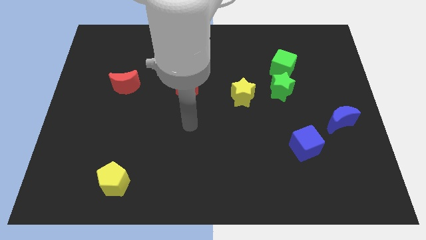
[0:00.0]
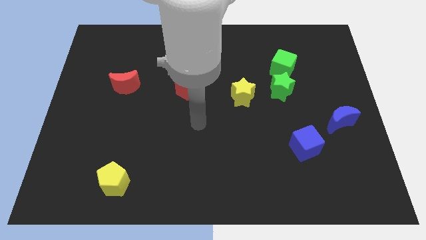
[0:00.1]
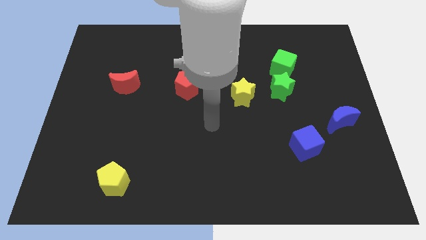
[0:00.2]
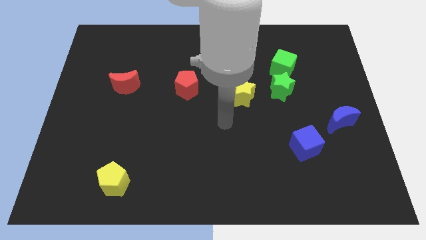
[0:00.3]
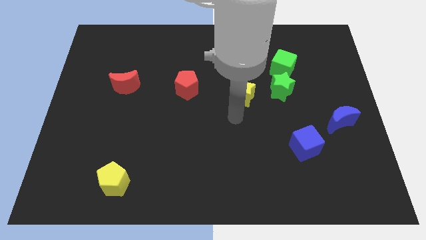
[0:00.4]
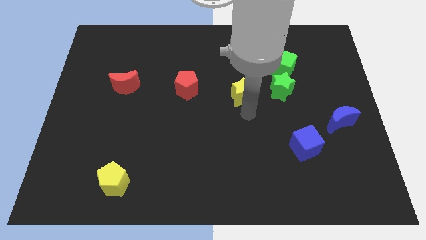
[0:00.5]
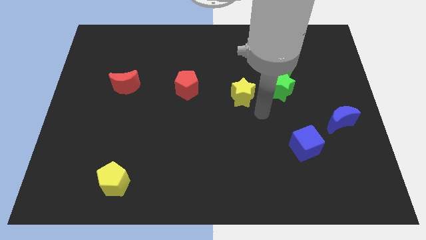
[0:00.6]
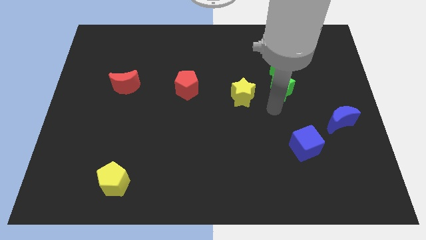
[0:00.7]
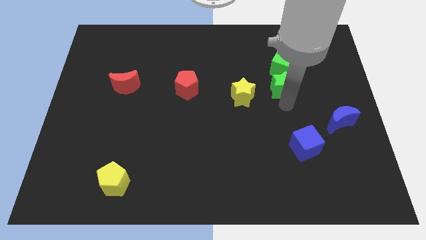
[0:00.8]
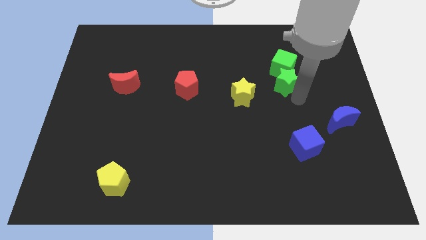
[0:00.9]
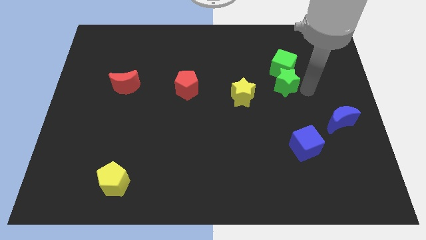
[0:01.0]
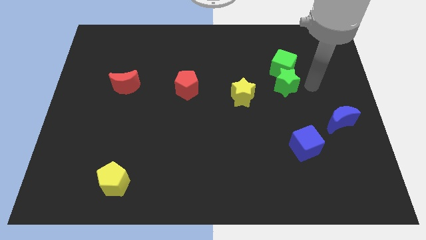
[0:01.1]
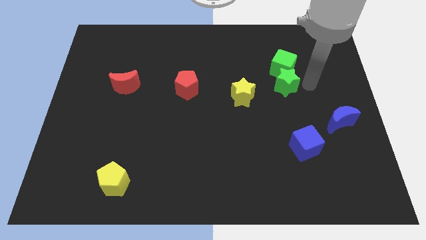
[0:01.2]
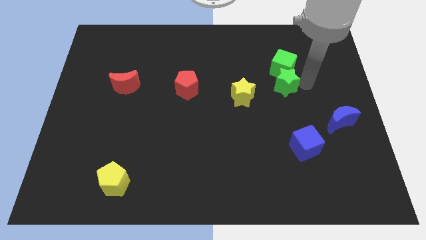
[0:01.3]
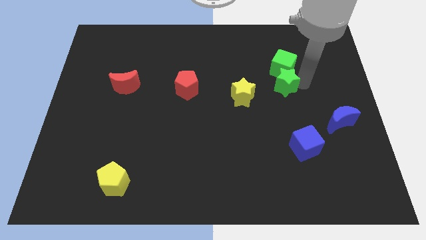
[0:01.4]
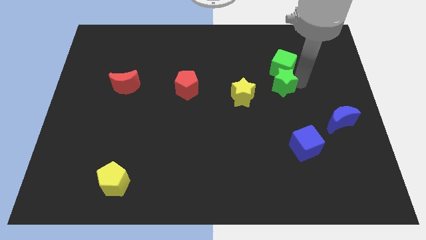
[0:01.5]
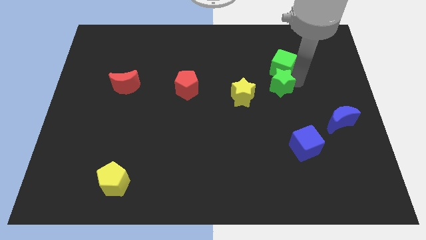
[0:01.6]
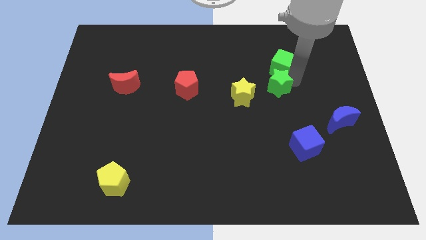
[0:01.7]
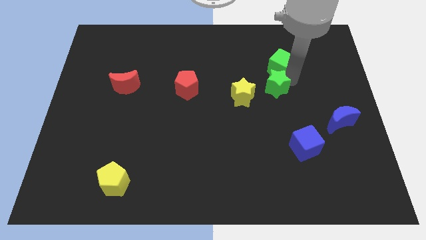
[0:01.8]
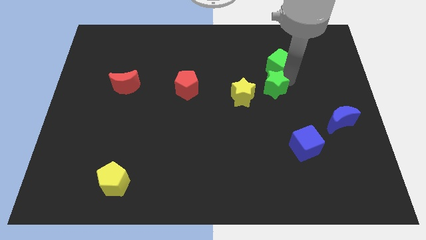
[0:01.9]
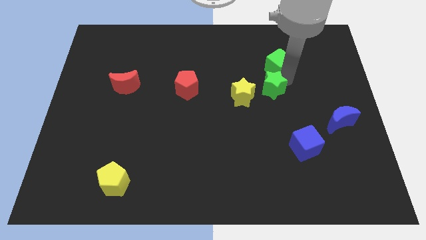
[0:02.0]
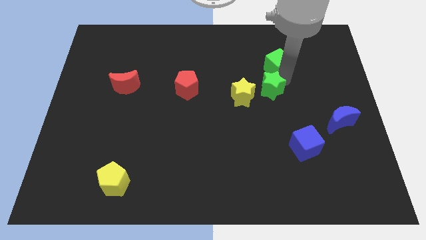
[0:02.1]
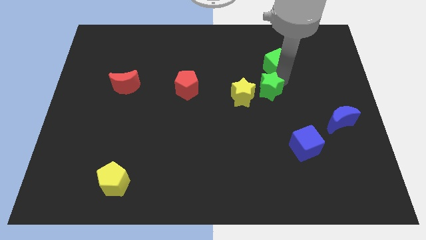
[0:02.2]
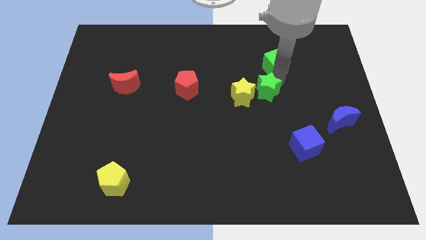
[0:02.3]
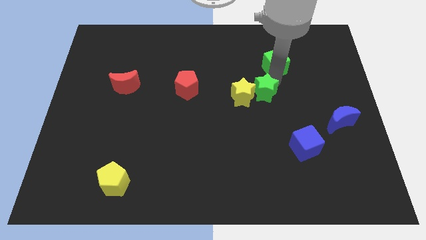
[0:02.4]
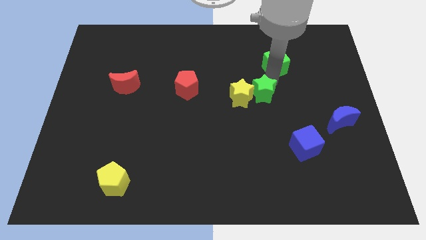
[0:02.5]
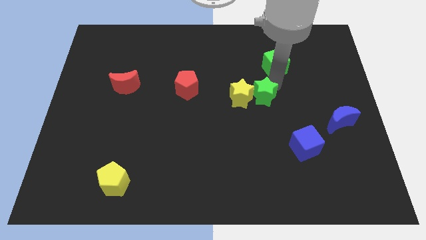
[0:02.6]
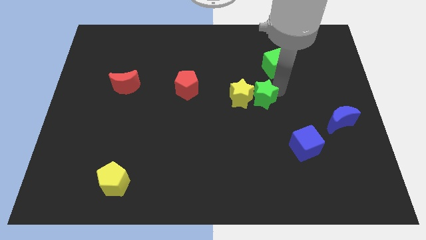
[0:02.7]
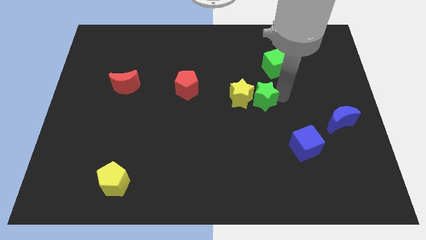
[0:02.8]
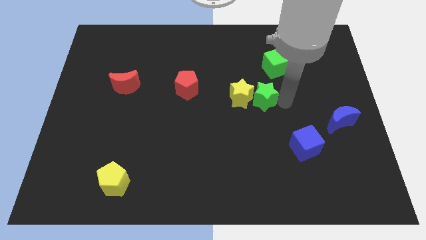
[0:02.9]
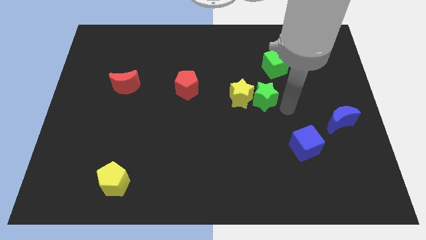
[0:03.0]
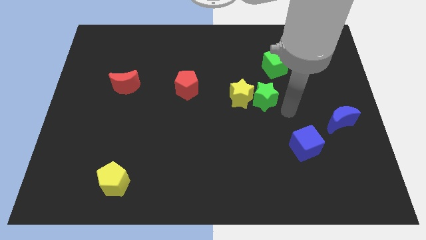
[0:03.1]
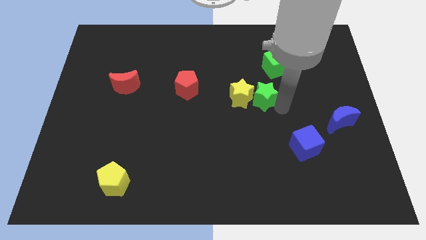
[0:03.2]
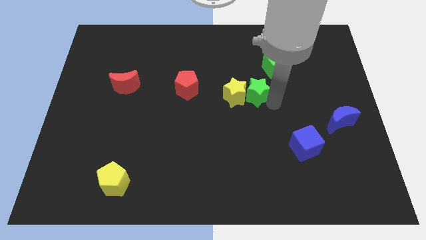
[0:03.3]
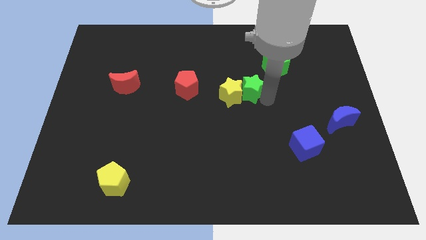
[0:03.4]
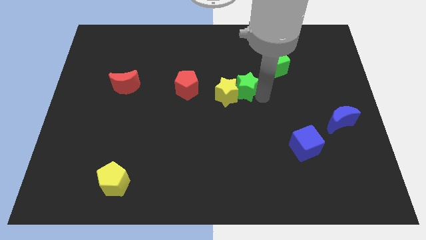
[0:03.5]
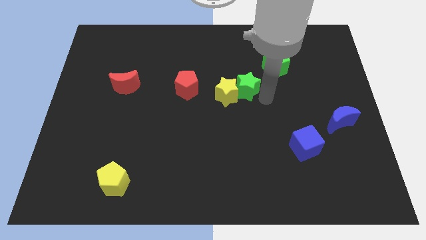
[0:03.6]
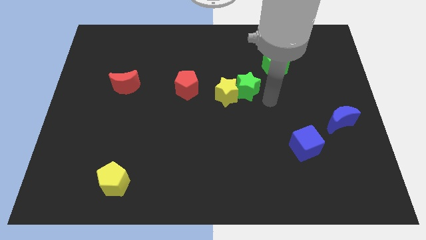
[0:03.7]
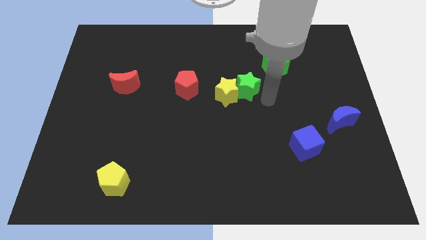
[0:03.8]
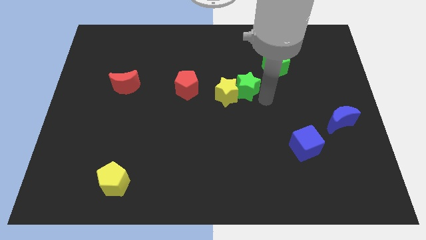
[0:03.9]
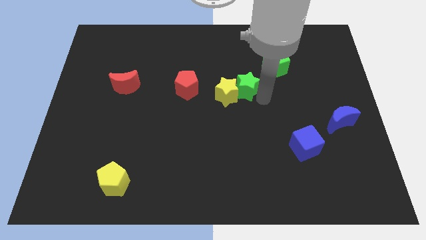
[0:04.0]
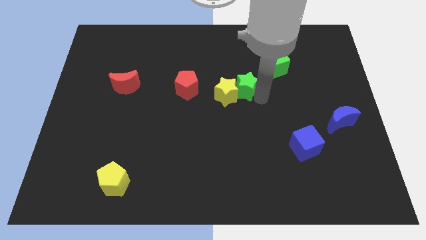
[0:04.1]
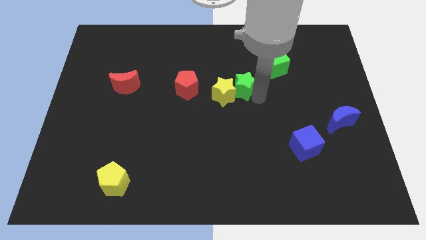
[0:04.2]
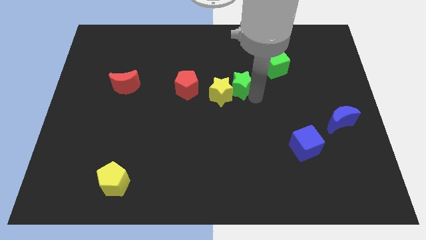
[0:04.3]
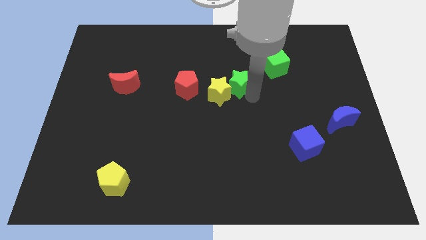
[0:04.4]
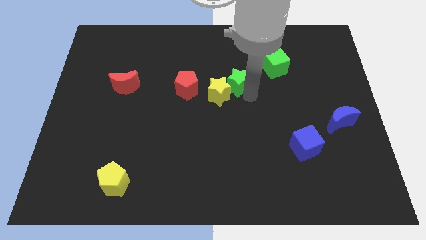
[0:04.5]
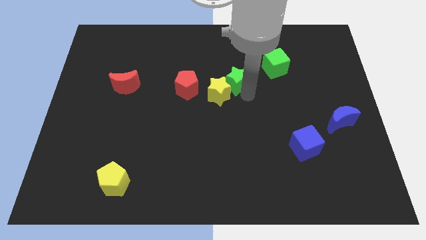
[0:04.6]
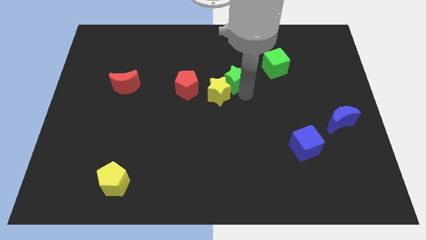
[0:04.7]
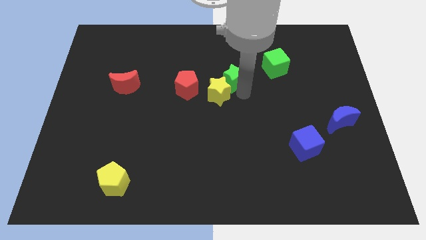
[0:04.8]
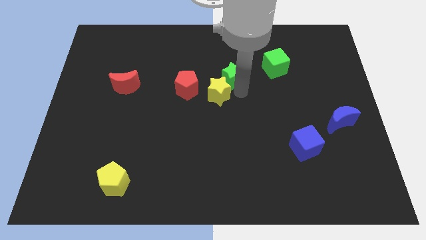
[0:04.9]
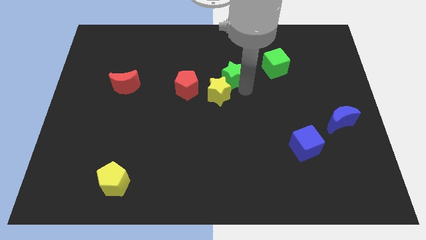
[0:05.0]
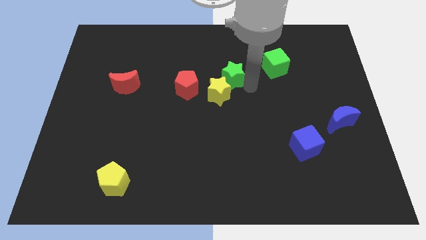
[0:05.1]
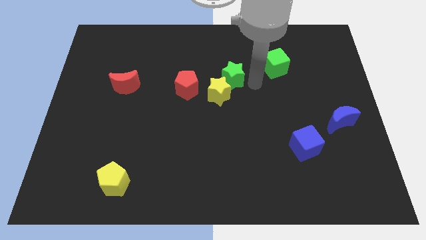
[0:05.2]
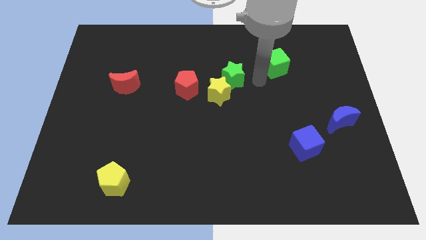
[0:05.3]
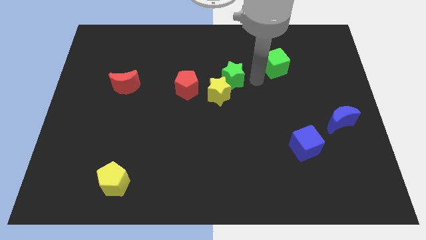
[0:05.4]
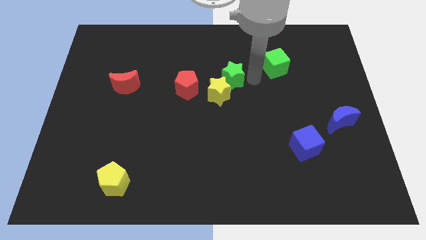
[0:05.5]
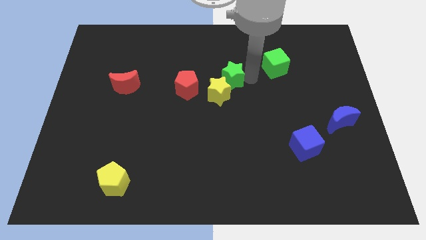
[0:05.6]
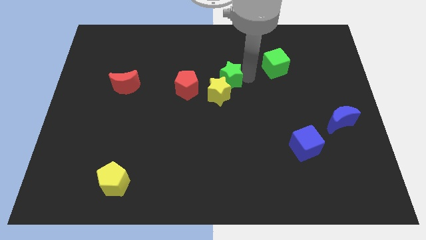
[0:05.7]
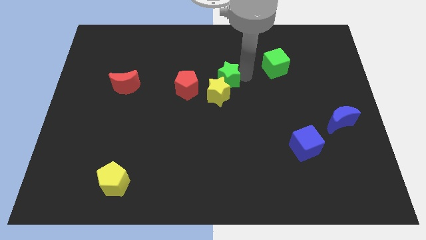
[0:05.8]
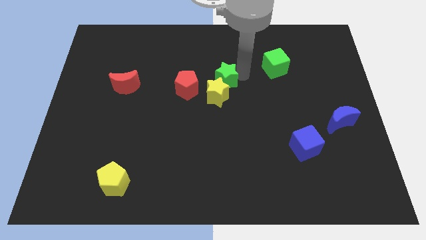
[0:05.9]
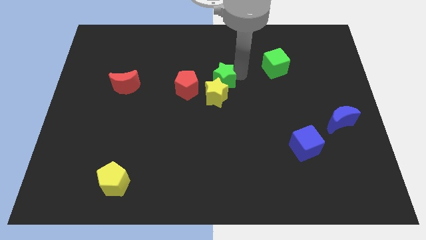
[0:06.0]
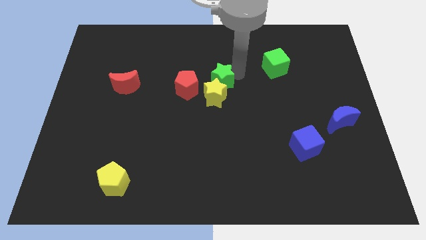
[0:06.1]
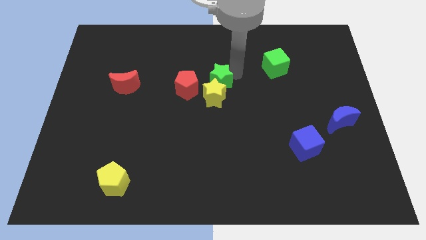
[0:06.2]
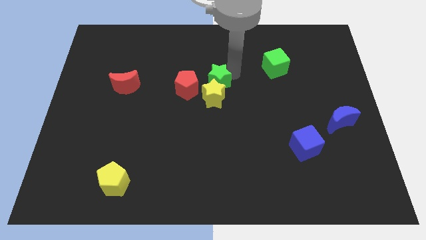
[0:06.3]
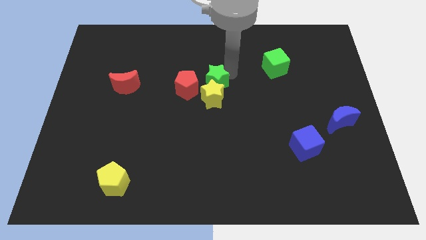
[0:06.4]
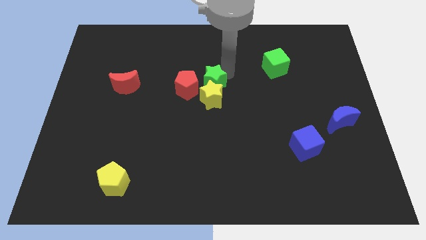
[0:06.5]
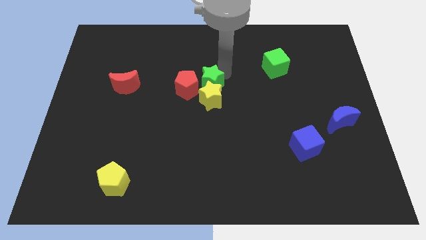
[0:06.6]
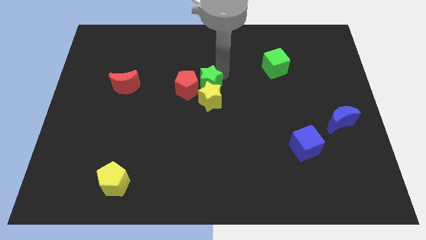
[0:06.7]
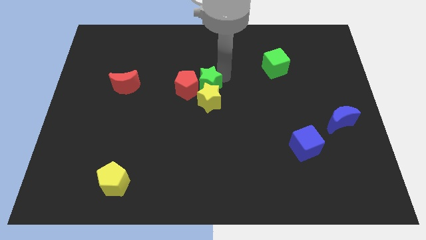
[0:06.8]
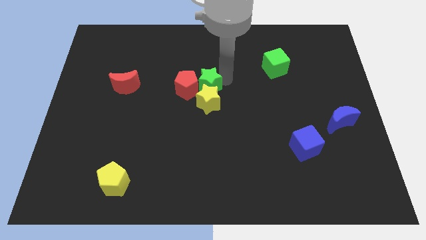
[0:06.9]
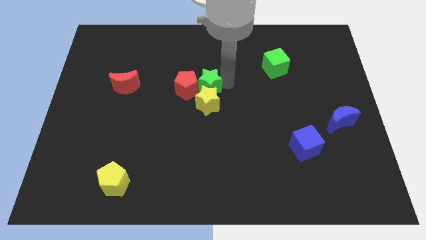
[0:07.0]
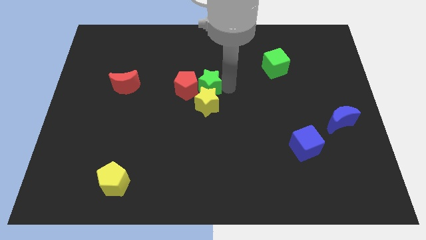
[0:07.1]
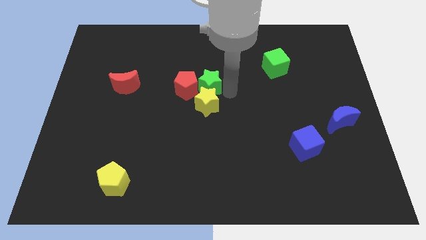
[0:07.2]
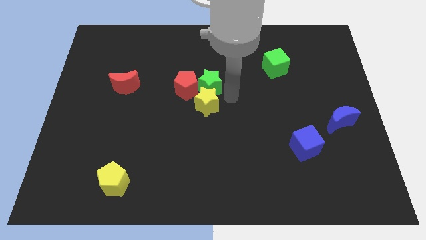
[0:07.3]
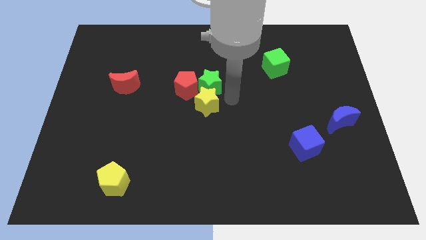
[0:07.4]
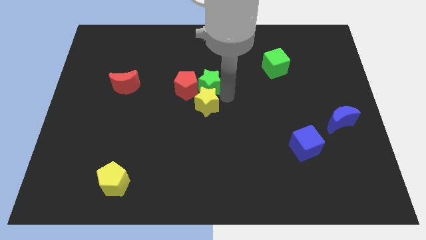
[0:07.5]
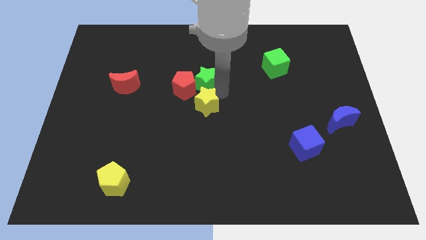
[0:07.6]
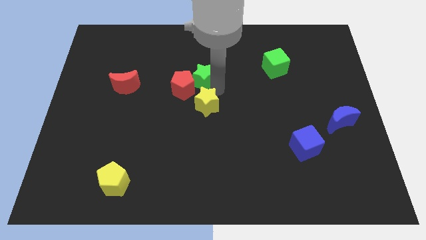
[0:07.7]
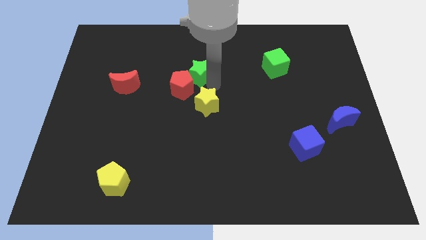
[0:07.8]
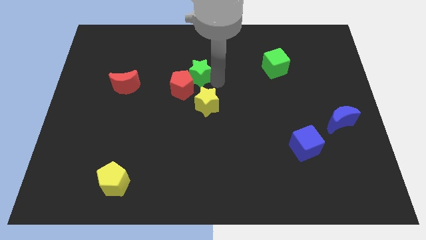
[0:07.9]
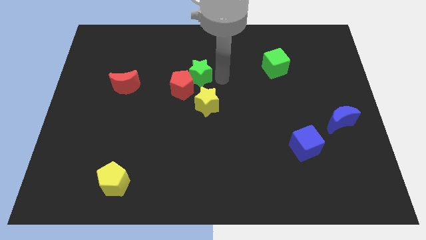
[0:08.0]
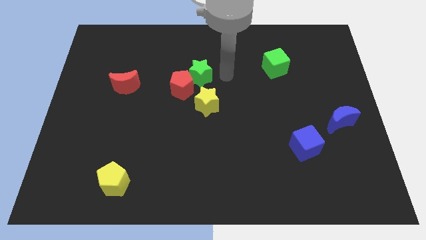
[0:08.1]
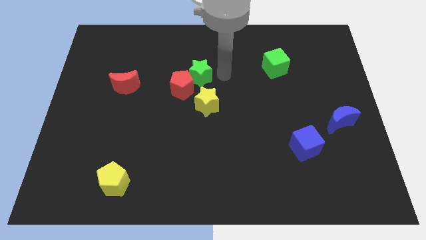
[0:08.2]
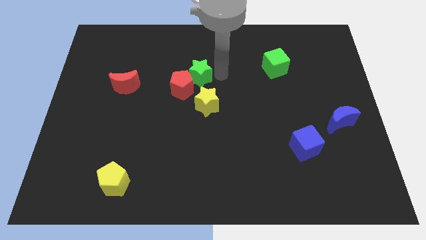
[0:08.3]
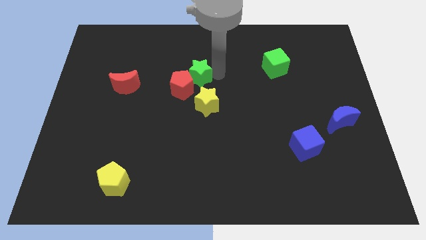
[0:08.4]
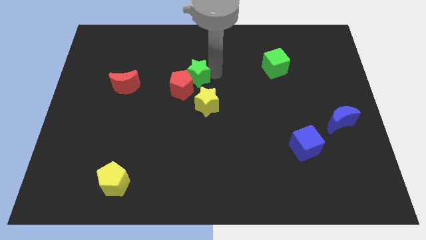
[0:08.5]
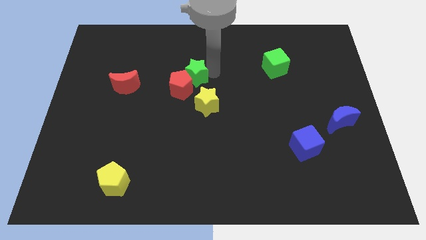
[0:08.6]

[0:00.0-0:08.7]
slide the green star to the left
